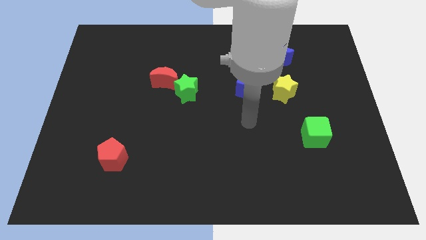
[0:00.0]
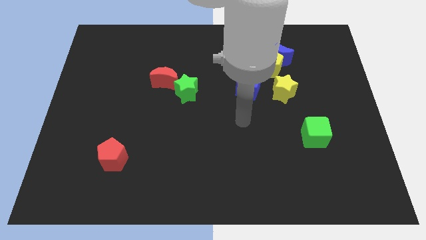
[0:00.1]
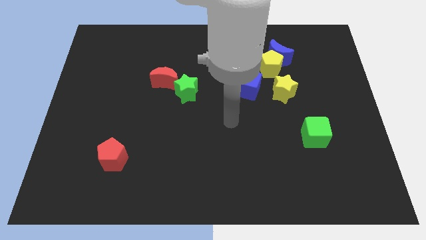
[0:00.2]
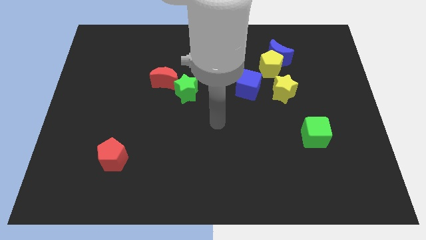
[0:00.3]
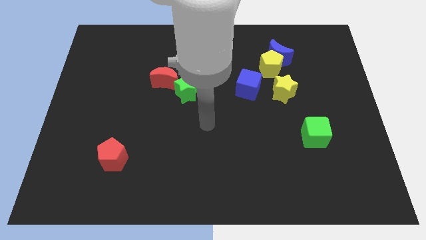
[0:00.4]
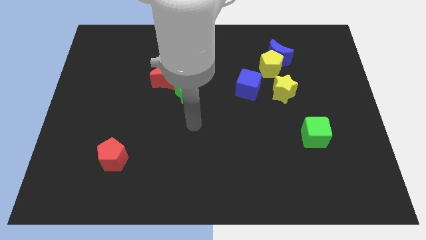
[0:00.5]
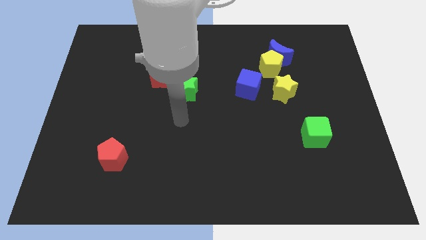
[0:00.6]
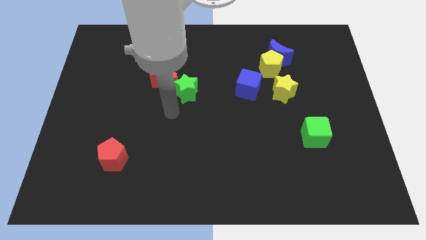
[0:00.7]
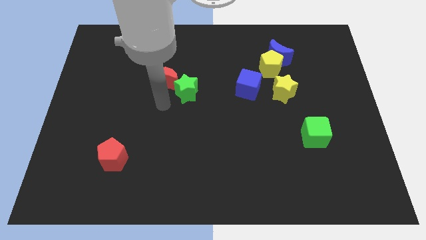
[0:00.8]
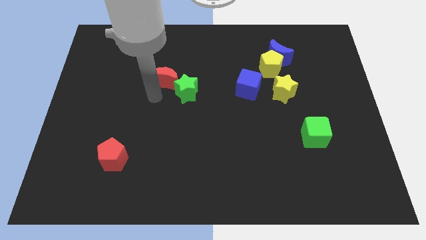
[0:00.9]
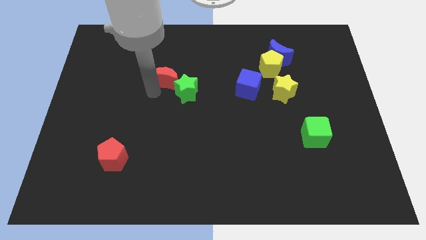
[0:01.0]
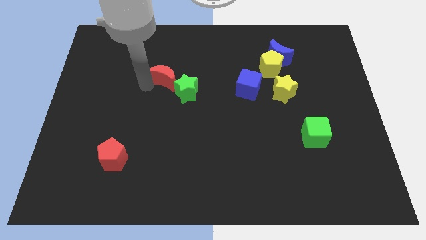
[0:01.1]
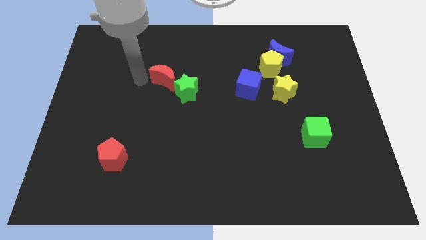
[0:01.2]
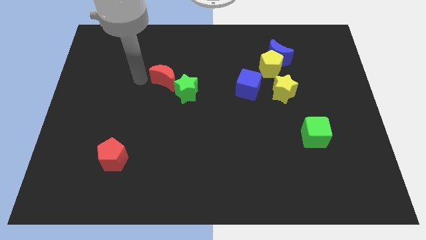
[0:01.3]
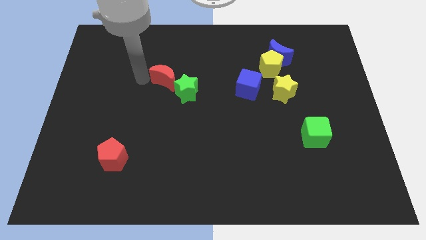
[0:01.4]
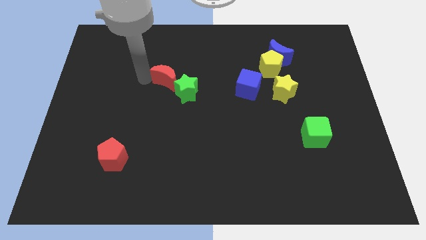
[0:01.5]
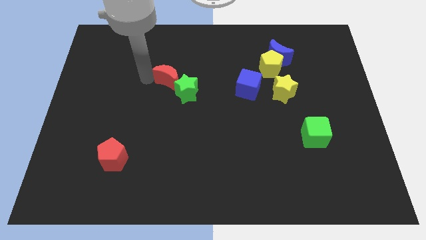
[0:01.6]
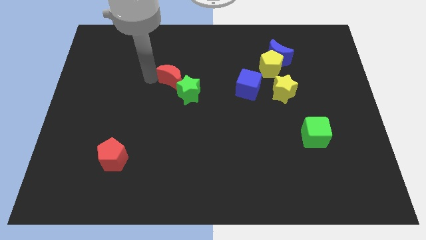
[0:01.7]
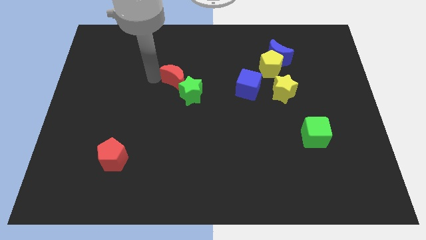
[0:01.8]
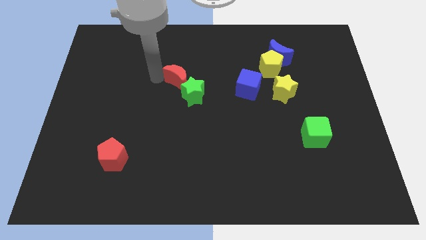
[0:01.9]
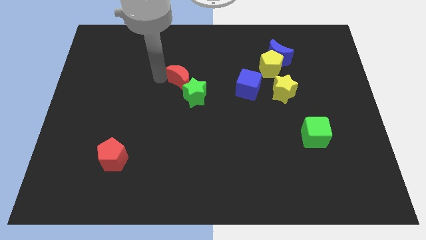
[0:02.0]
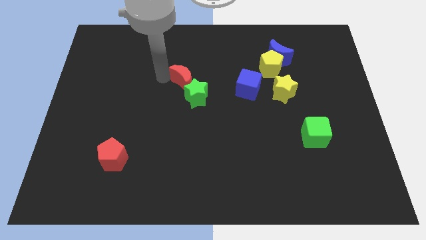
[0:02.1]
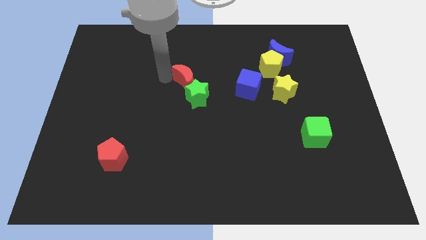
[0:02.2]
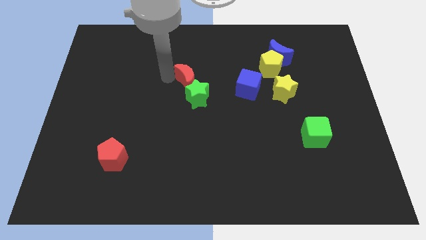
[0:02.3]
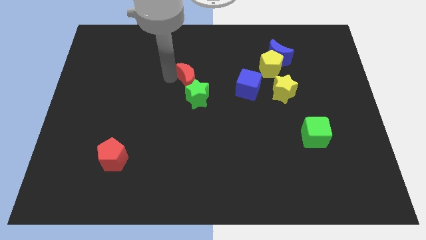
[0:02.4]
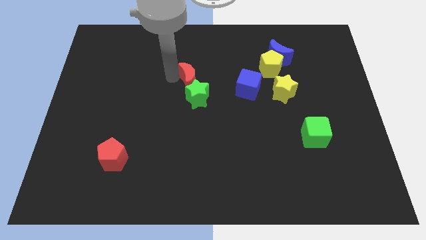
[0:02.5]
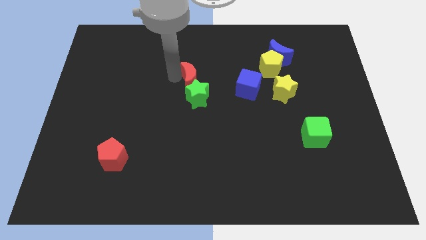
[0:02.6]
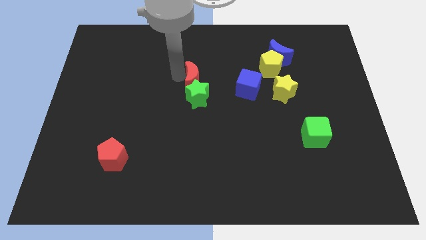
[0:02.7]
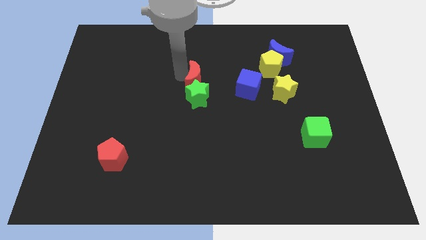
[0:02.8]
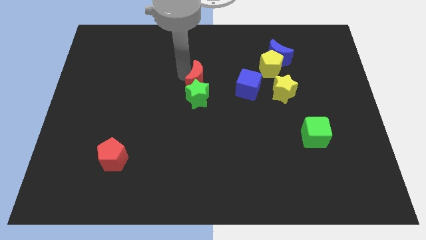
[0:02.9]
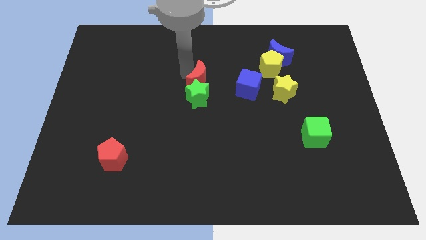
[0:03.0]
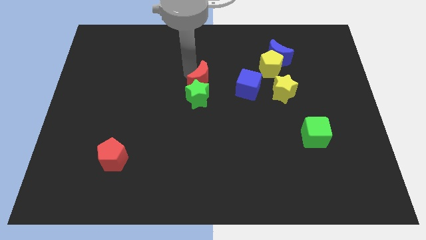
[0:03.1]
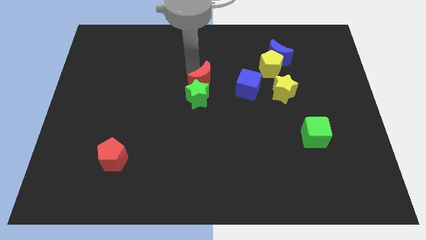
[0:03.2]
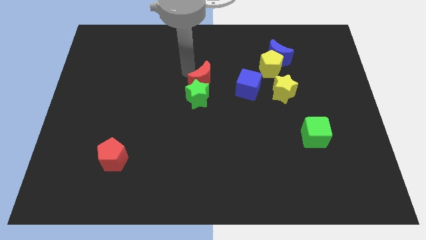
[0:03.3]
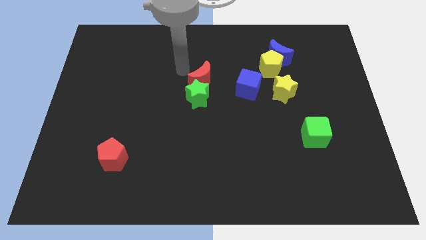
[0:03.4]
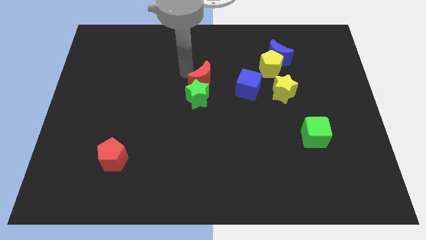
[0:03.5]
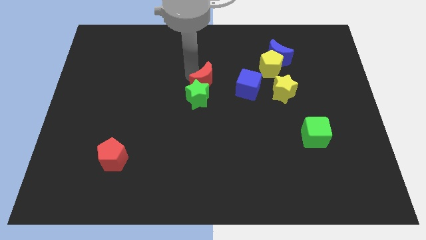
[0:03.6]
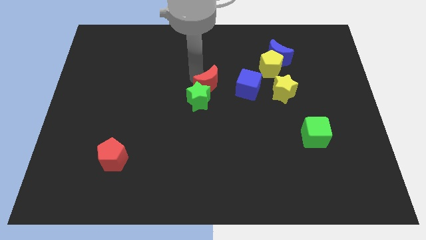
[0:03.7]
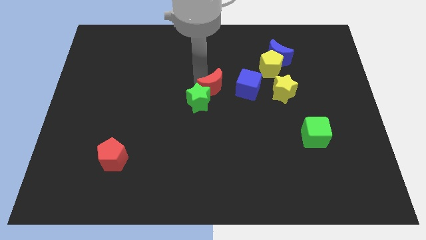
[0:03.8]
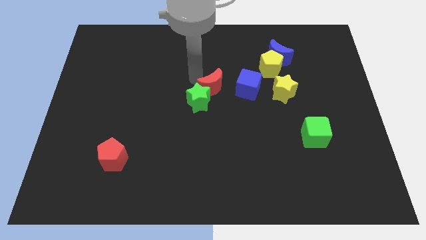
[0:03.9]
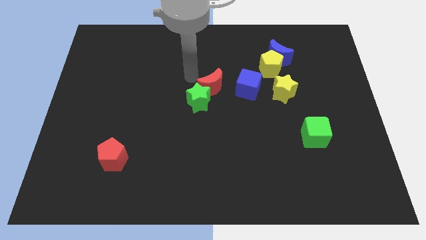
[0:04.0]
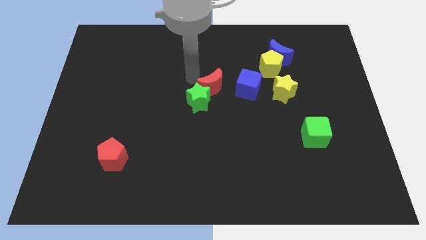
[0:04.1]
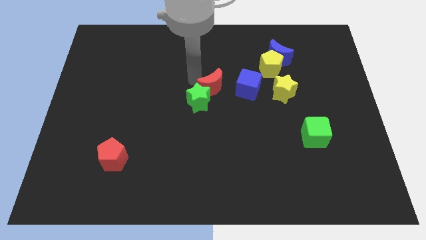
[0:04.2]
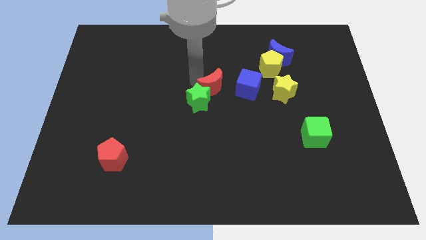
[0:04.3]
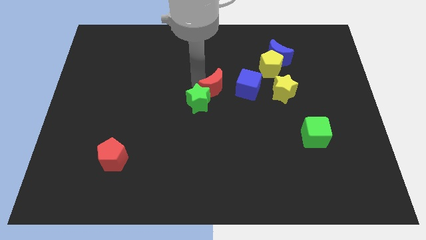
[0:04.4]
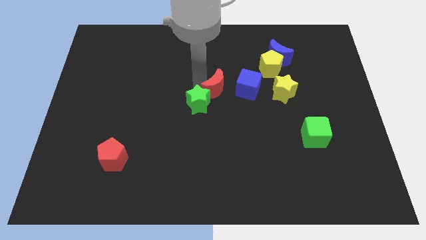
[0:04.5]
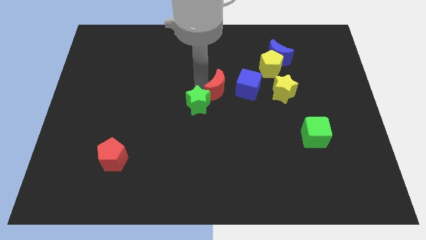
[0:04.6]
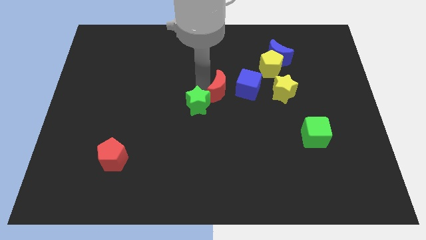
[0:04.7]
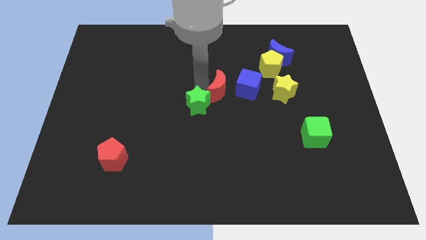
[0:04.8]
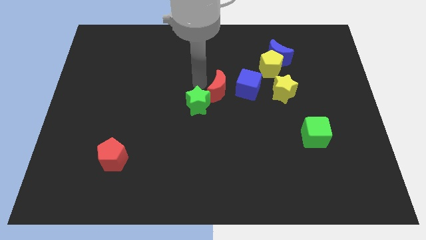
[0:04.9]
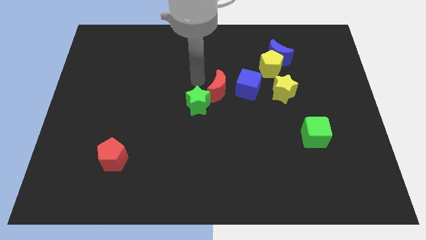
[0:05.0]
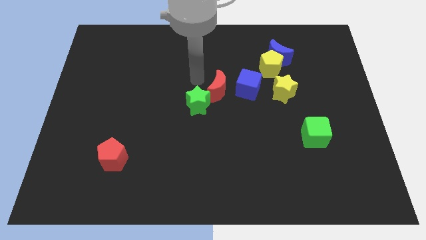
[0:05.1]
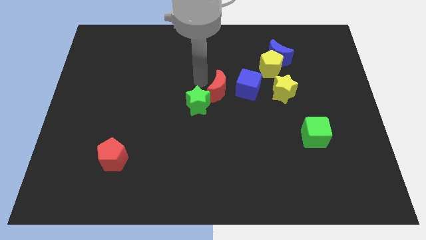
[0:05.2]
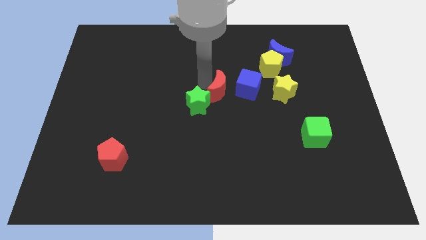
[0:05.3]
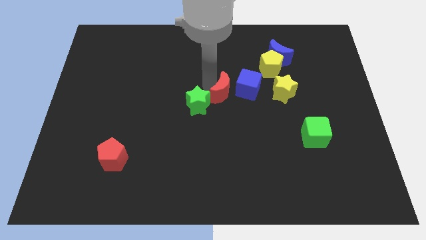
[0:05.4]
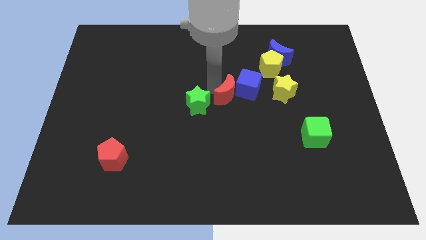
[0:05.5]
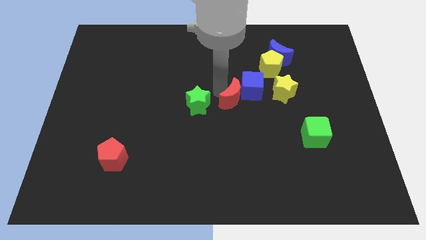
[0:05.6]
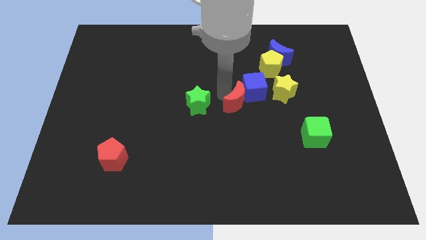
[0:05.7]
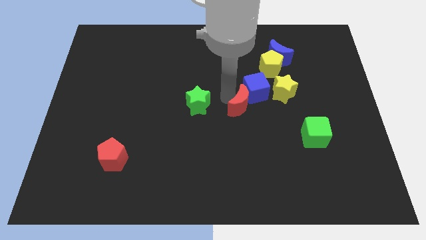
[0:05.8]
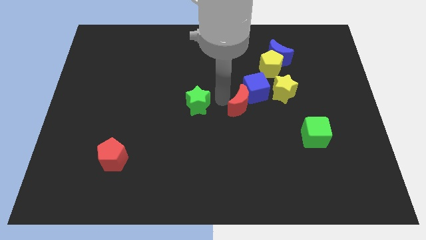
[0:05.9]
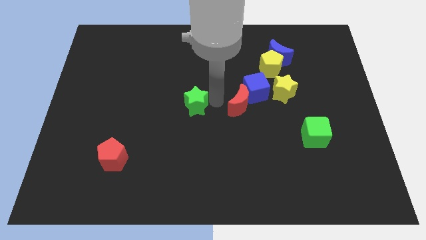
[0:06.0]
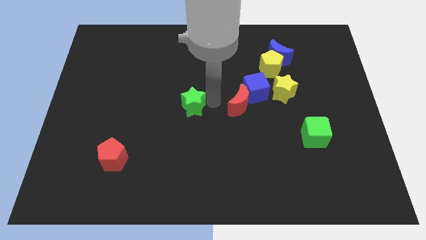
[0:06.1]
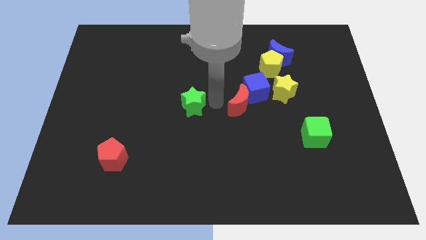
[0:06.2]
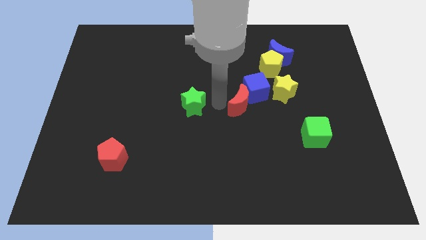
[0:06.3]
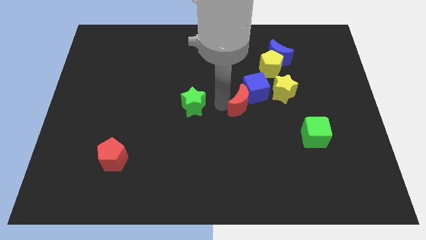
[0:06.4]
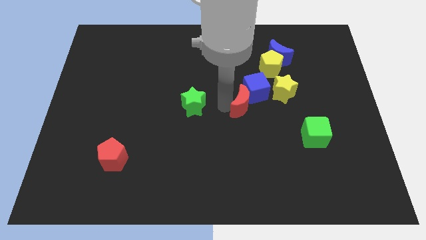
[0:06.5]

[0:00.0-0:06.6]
push the red moon to the bottom left side of the yellow star

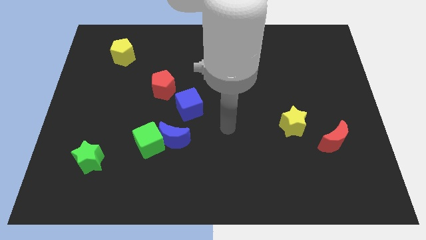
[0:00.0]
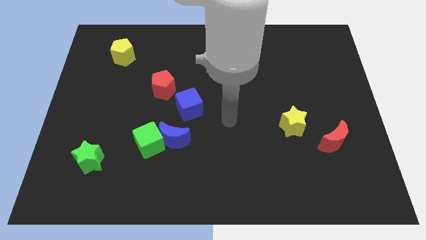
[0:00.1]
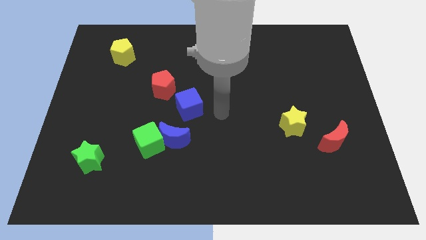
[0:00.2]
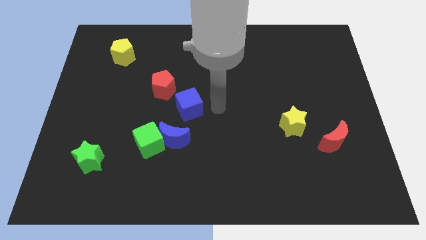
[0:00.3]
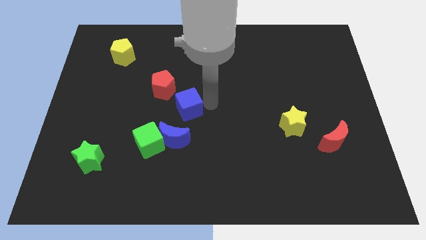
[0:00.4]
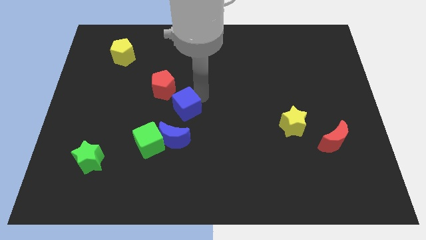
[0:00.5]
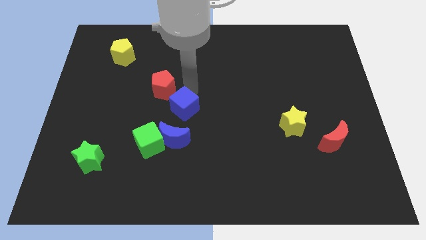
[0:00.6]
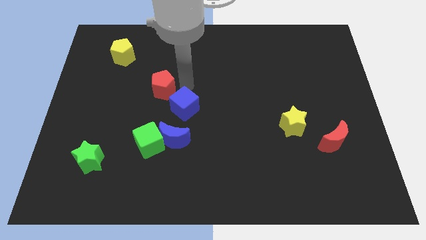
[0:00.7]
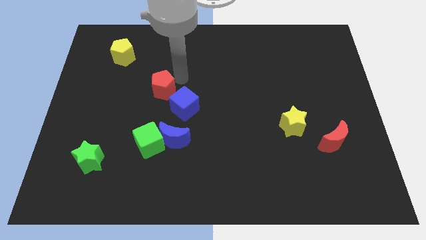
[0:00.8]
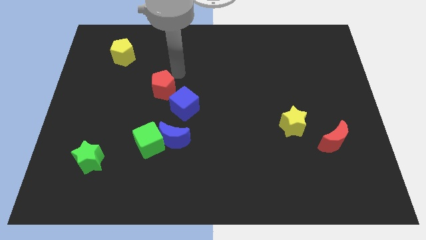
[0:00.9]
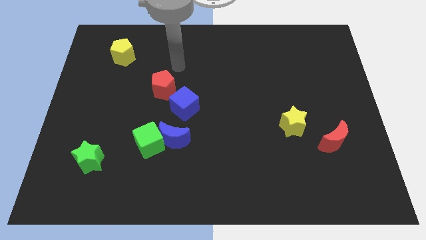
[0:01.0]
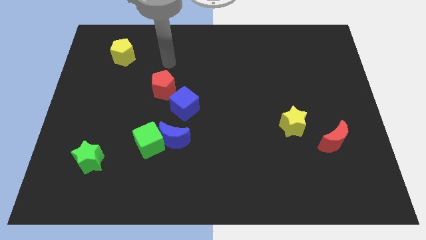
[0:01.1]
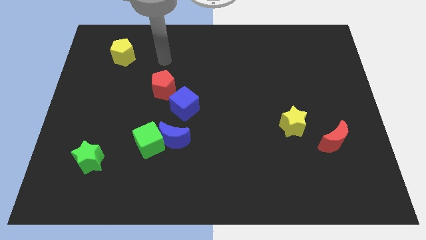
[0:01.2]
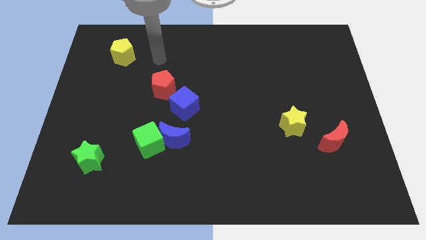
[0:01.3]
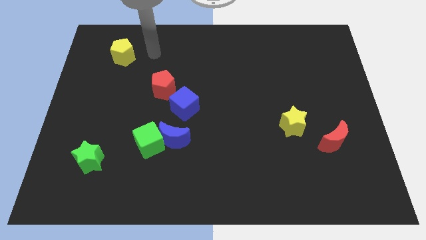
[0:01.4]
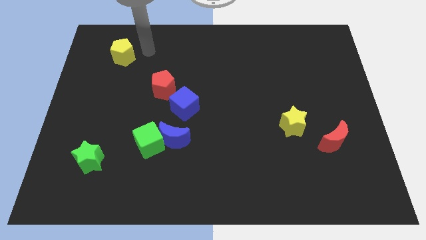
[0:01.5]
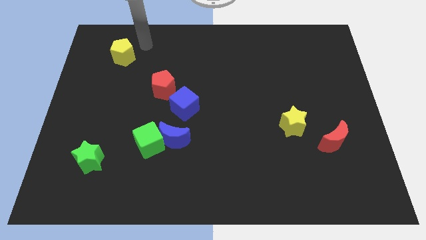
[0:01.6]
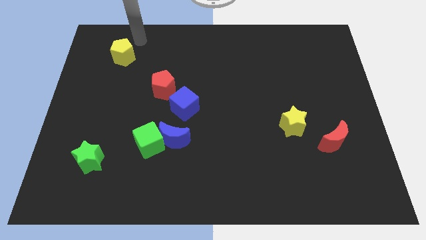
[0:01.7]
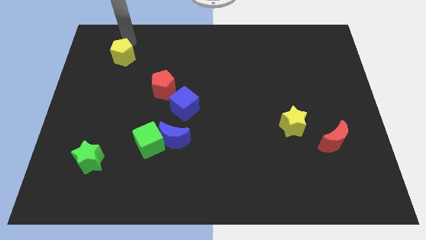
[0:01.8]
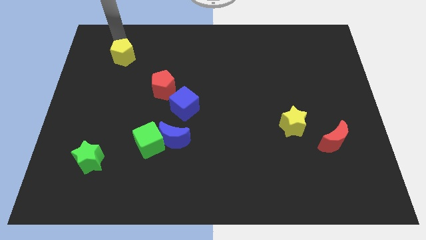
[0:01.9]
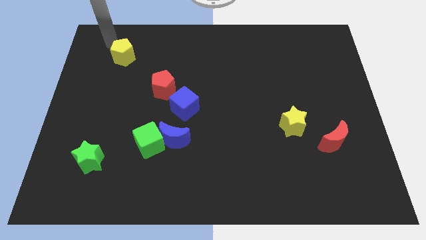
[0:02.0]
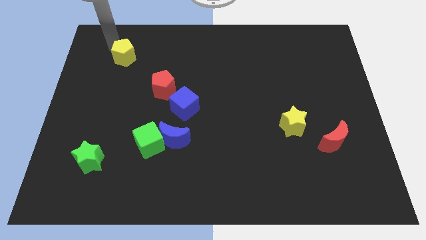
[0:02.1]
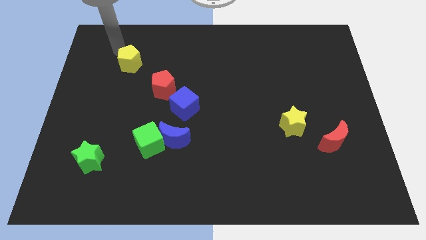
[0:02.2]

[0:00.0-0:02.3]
move the yellow pentagon diagonally up and to the left of the red pentagon
